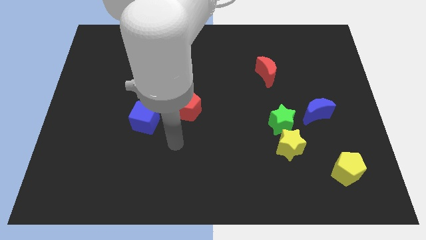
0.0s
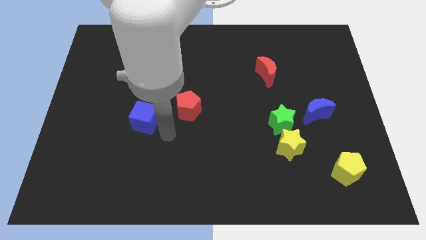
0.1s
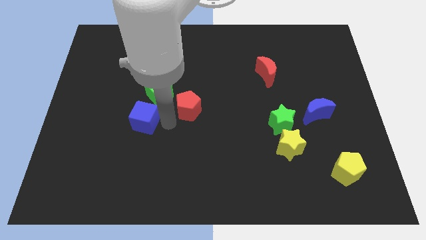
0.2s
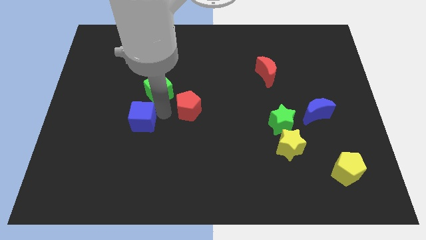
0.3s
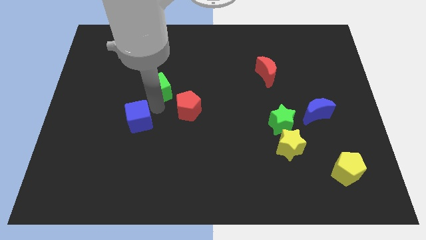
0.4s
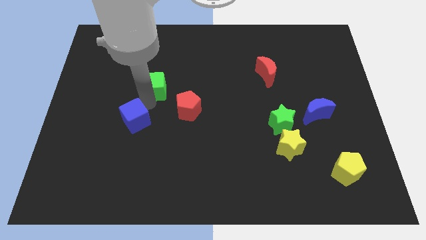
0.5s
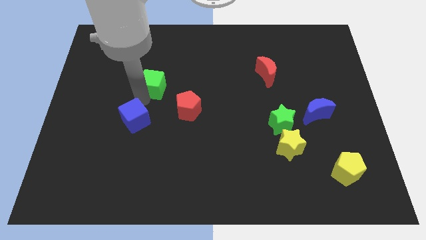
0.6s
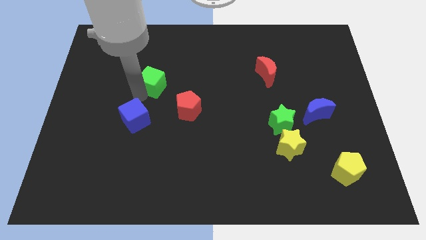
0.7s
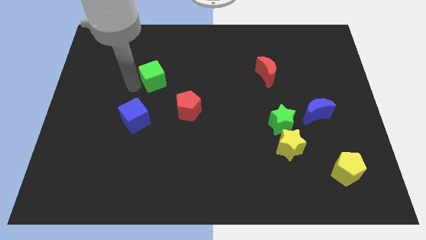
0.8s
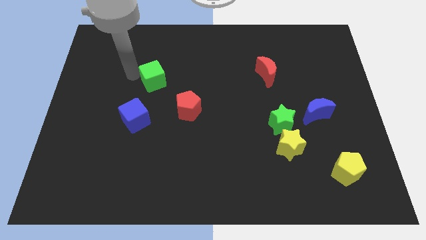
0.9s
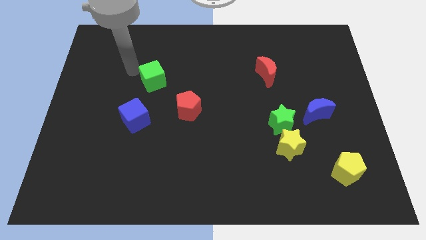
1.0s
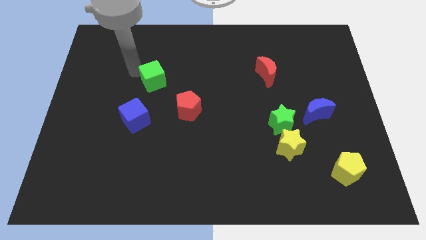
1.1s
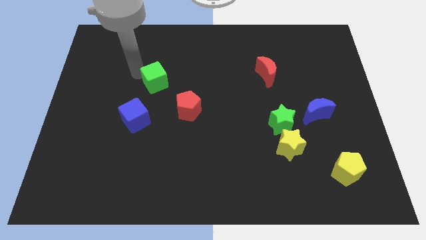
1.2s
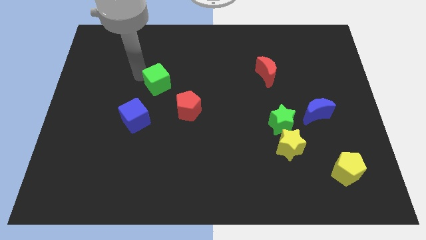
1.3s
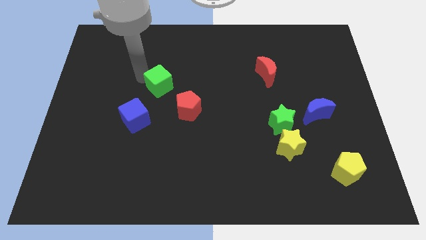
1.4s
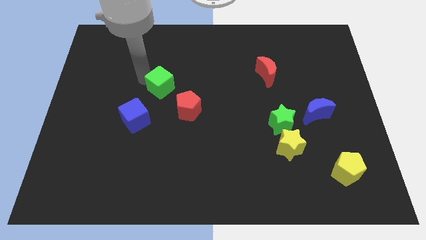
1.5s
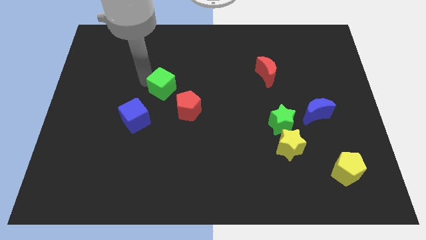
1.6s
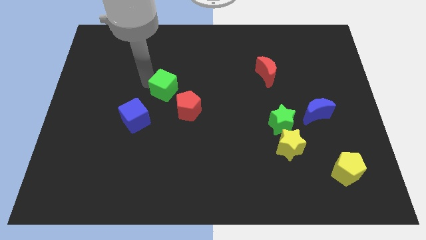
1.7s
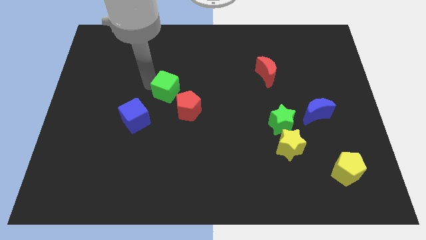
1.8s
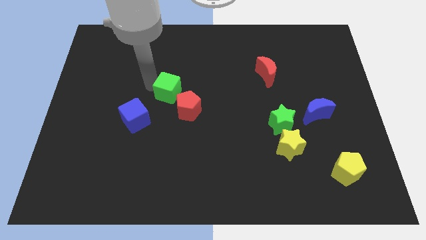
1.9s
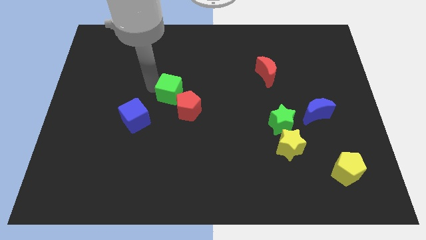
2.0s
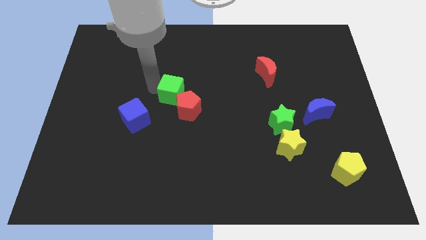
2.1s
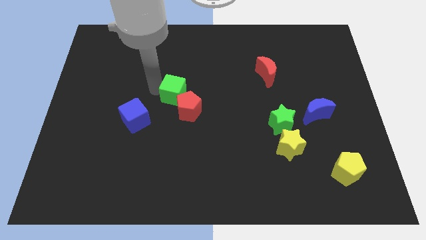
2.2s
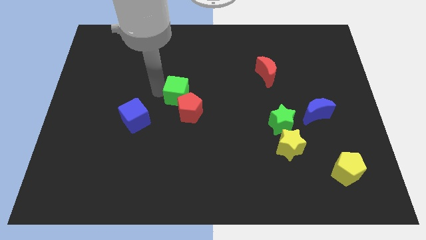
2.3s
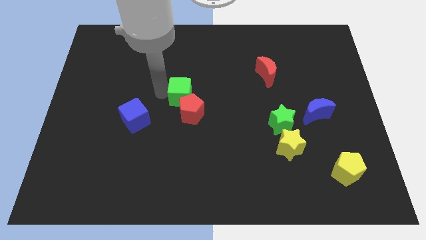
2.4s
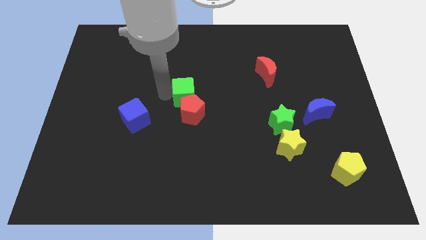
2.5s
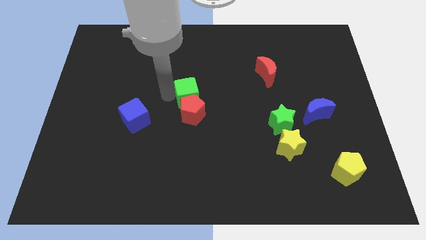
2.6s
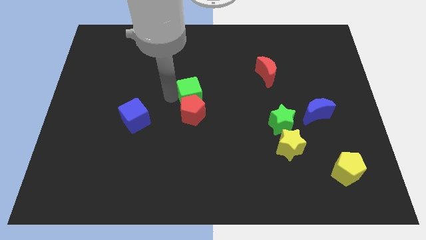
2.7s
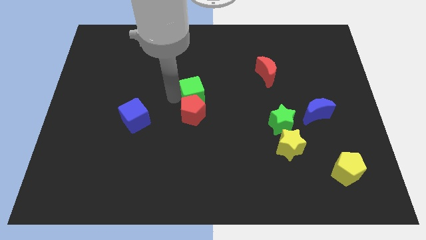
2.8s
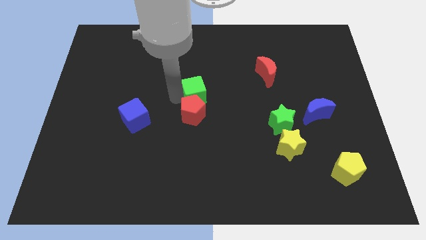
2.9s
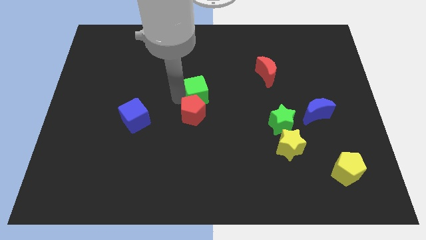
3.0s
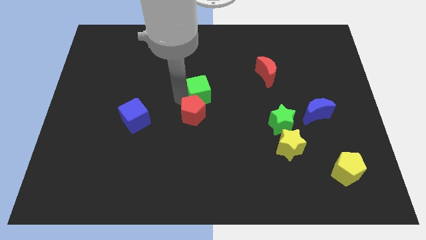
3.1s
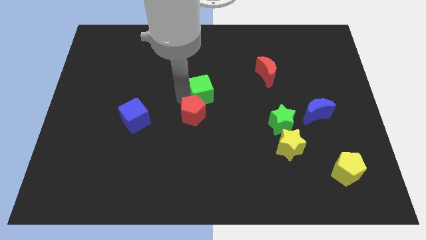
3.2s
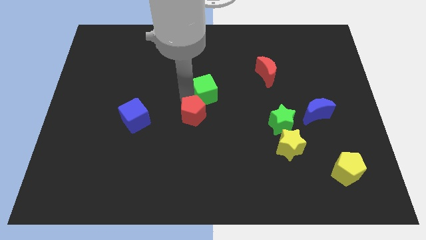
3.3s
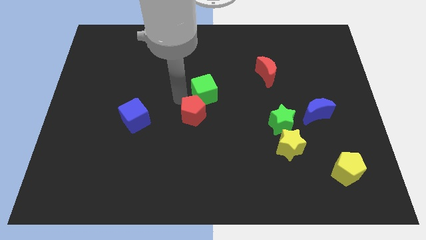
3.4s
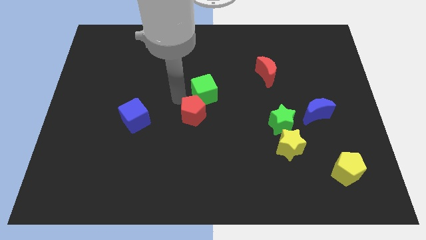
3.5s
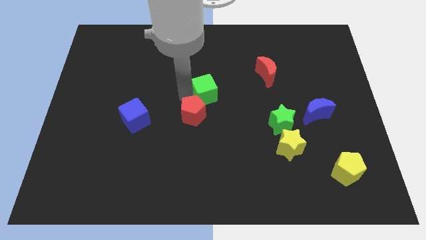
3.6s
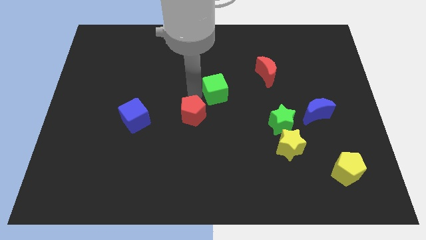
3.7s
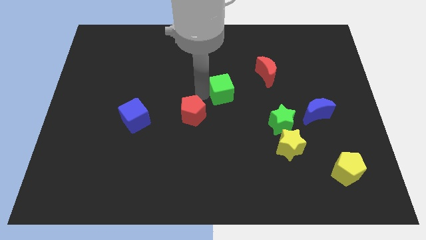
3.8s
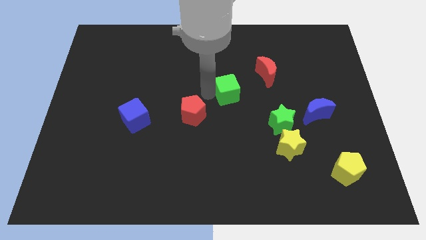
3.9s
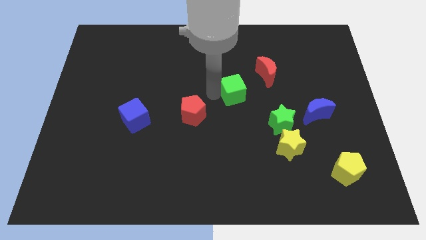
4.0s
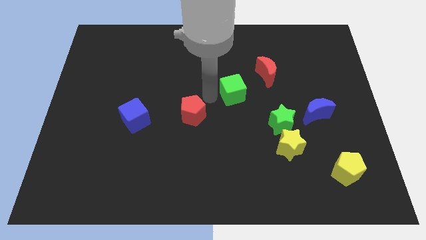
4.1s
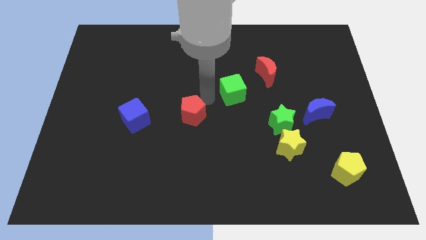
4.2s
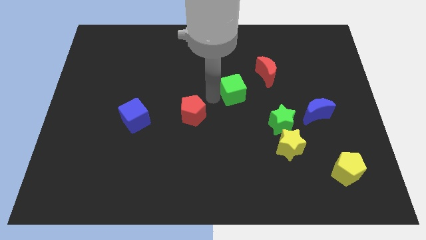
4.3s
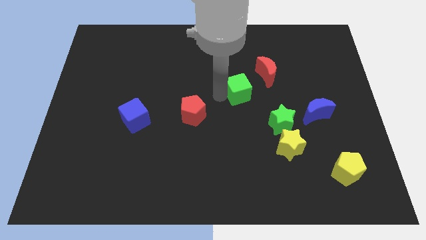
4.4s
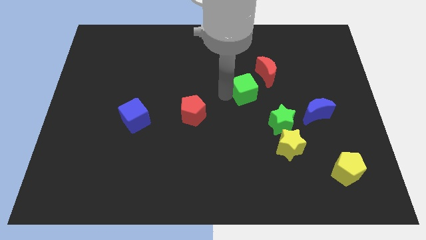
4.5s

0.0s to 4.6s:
move the green cube right

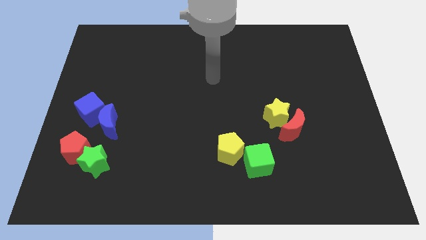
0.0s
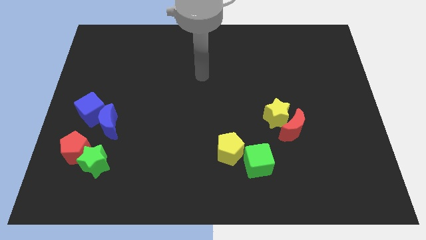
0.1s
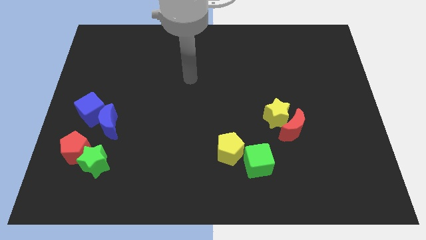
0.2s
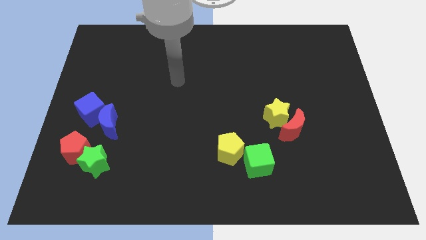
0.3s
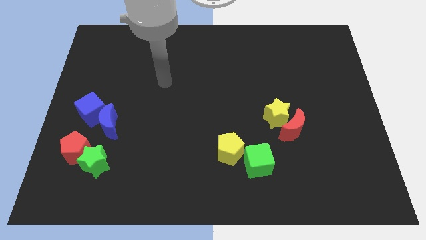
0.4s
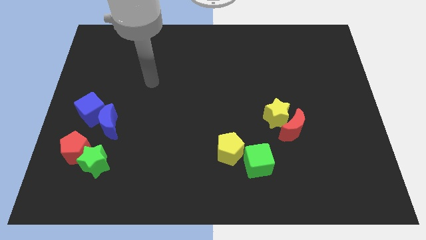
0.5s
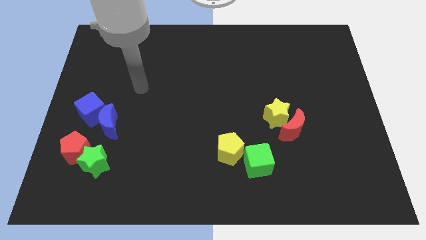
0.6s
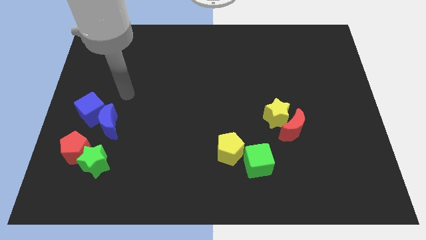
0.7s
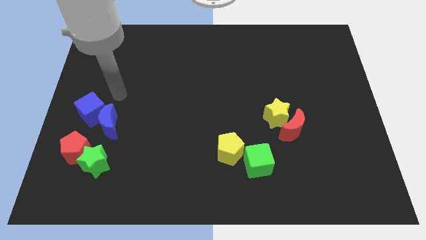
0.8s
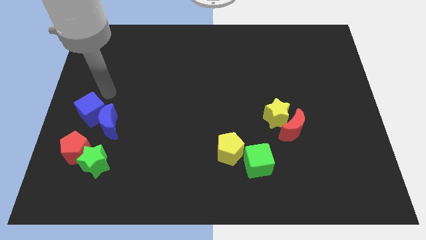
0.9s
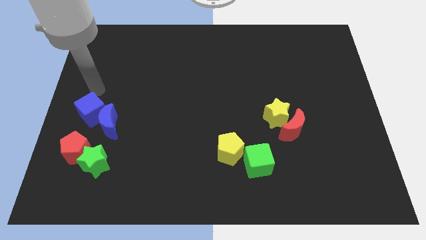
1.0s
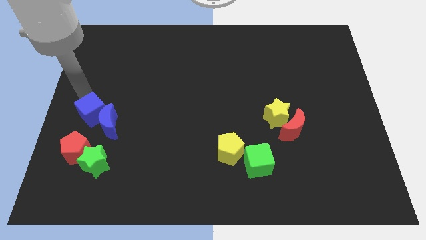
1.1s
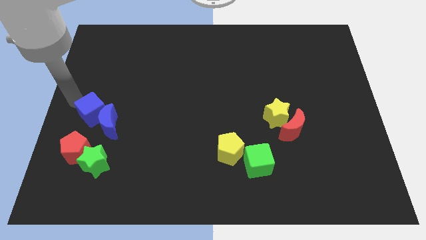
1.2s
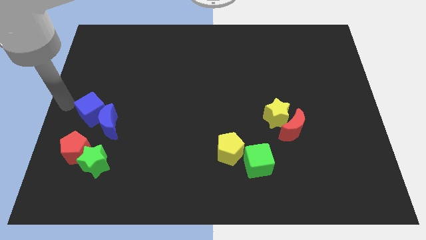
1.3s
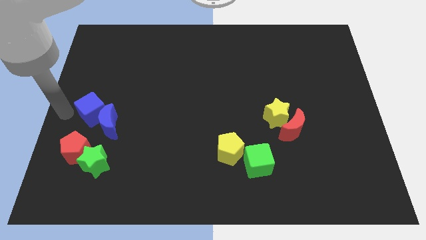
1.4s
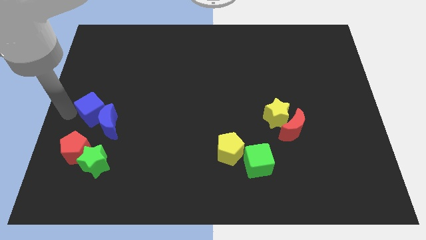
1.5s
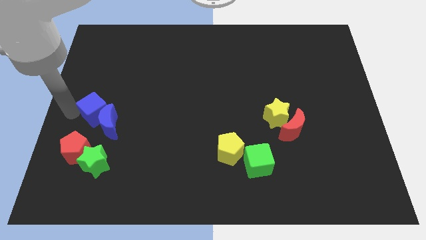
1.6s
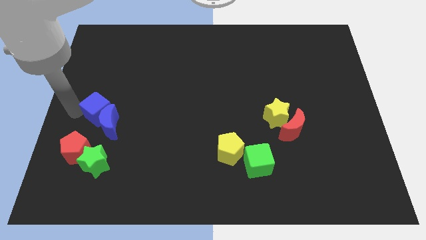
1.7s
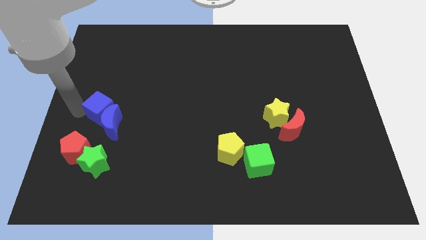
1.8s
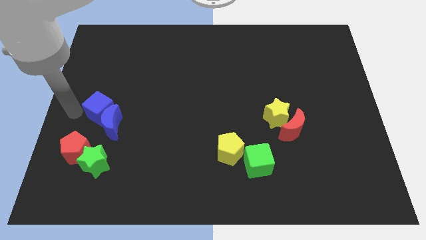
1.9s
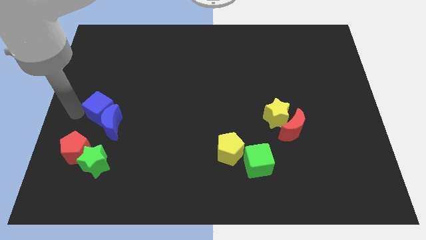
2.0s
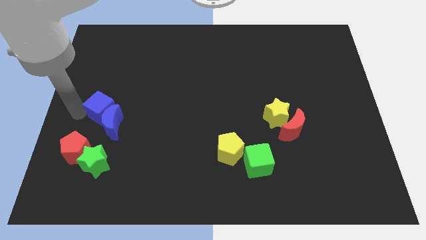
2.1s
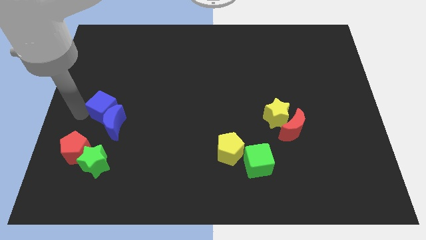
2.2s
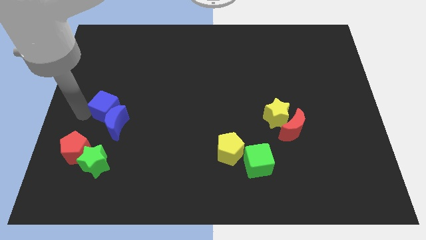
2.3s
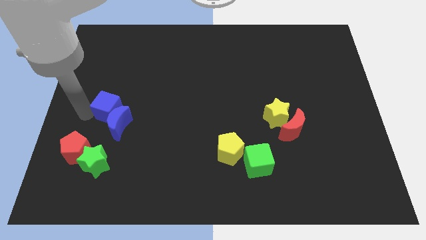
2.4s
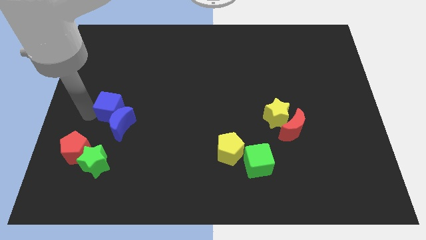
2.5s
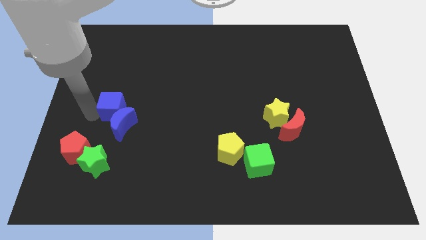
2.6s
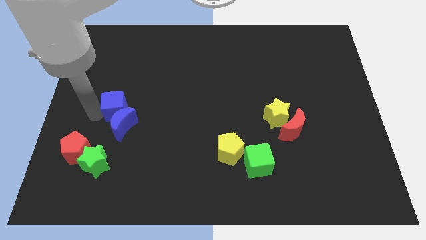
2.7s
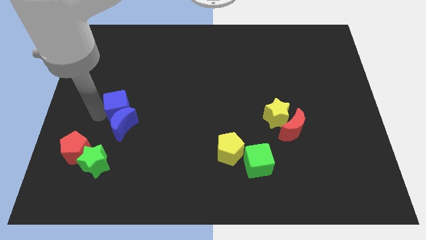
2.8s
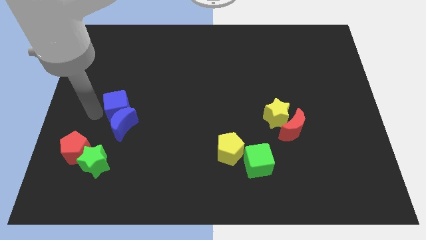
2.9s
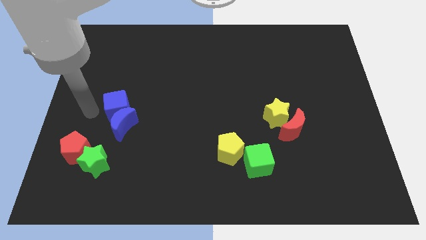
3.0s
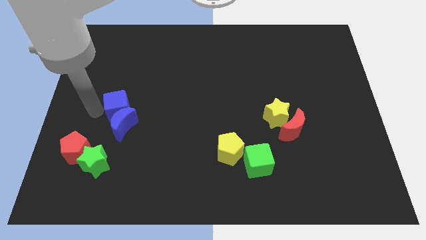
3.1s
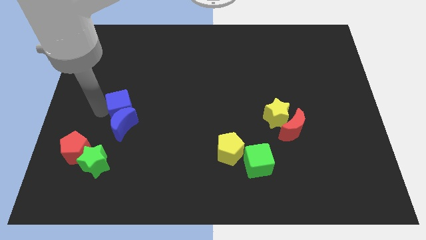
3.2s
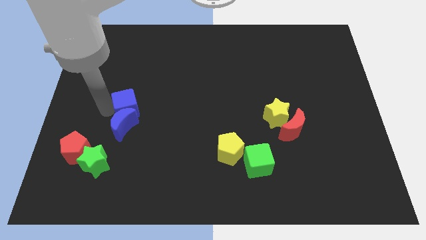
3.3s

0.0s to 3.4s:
slightly push the blue cube to the right
